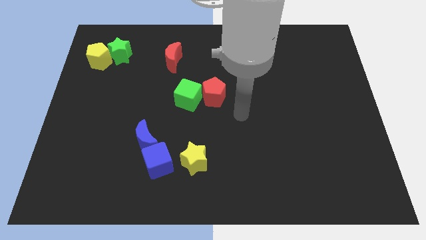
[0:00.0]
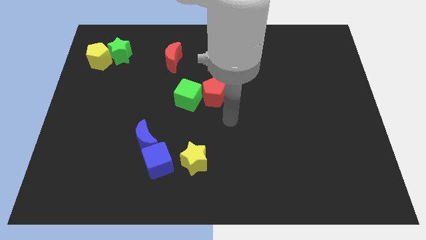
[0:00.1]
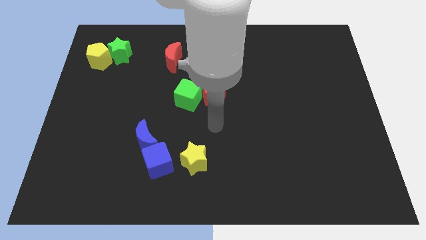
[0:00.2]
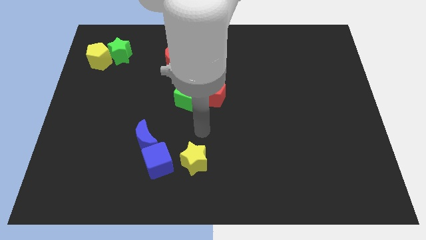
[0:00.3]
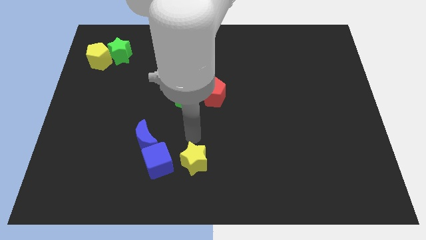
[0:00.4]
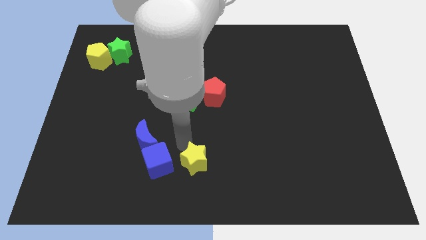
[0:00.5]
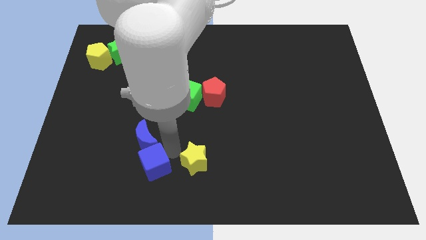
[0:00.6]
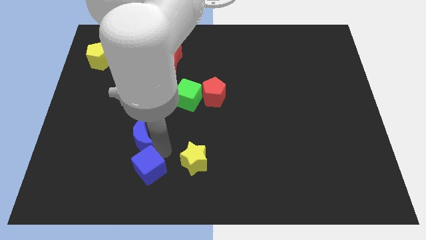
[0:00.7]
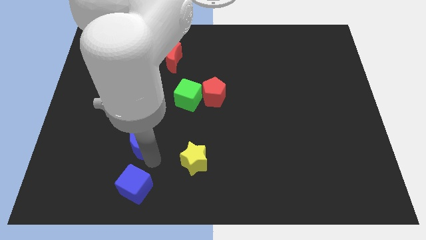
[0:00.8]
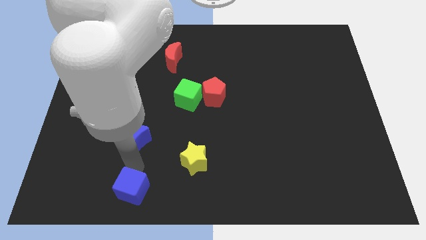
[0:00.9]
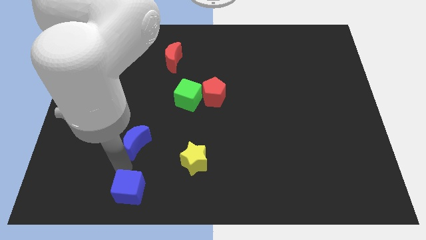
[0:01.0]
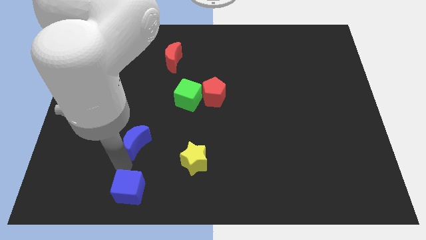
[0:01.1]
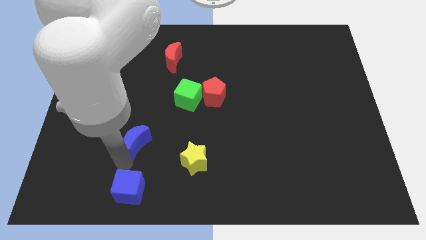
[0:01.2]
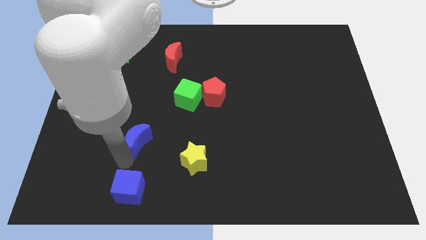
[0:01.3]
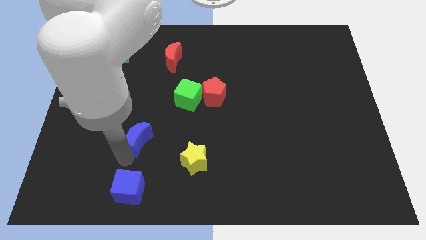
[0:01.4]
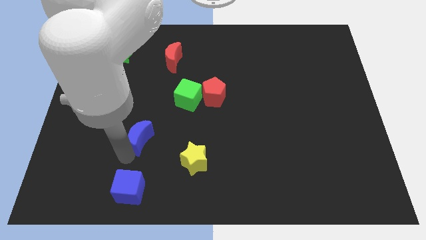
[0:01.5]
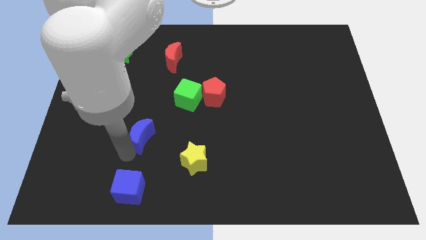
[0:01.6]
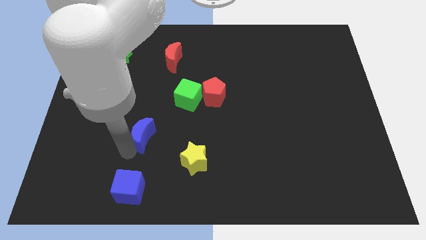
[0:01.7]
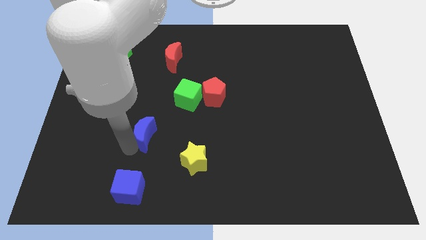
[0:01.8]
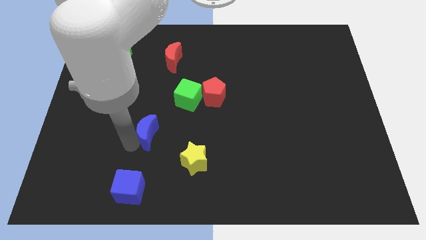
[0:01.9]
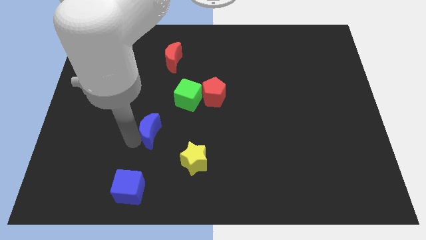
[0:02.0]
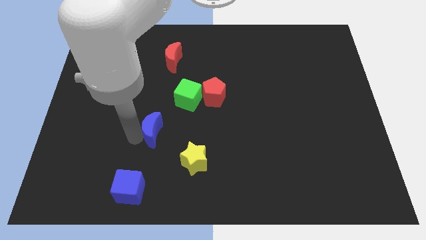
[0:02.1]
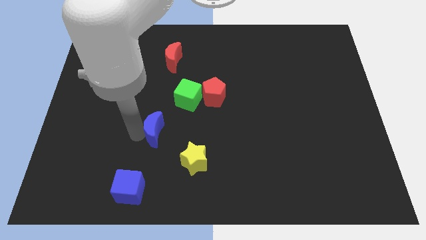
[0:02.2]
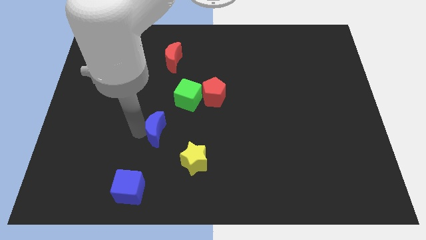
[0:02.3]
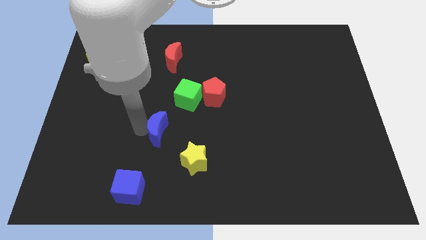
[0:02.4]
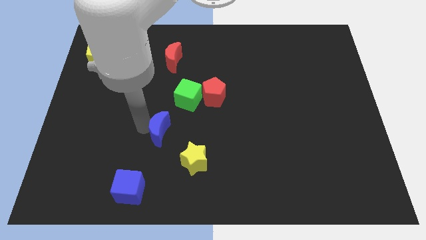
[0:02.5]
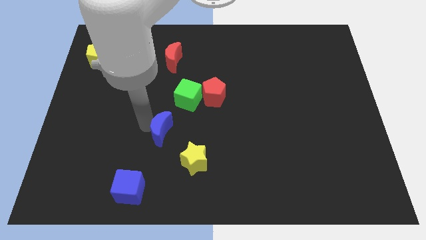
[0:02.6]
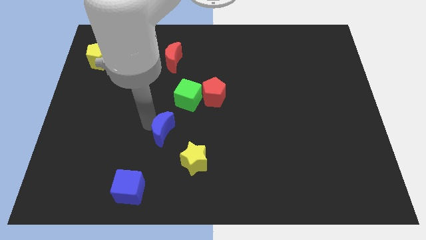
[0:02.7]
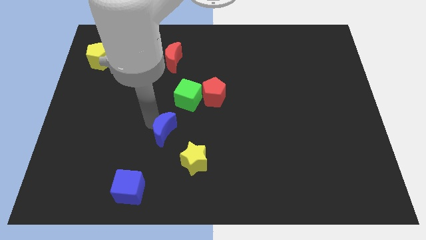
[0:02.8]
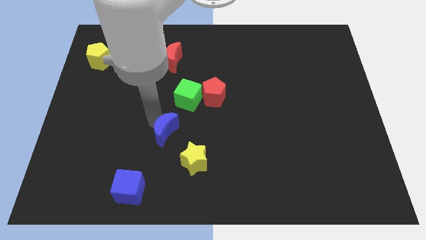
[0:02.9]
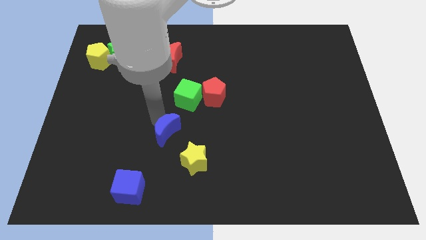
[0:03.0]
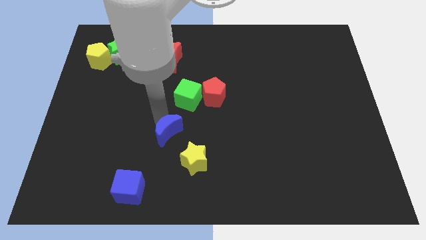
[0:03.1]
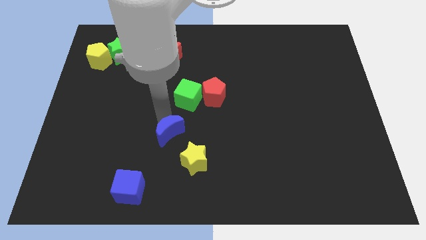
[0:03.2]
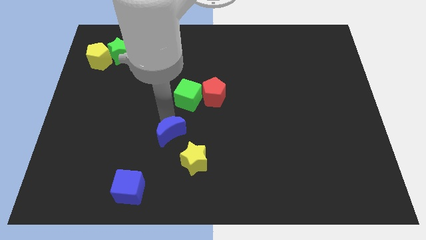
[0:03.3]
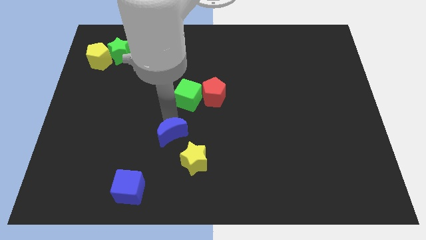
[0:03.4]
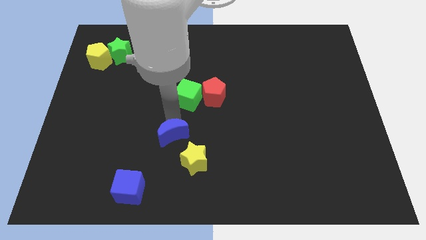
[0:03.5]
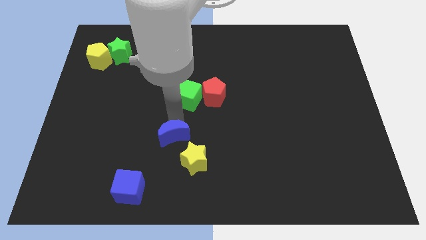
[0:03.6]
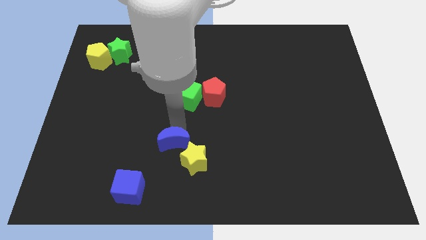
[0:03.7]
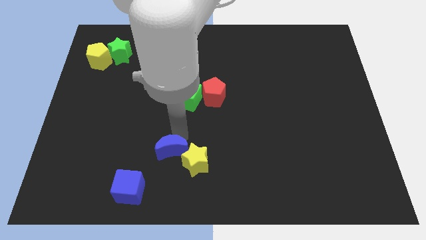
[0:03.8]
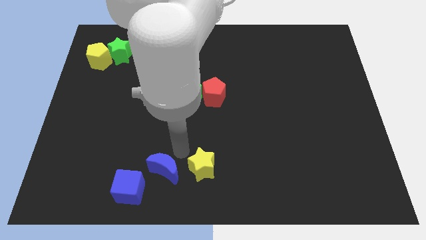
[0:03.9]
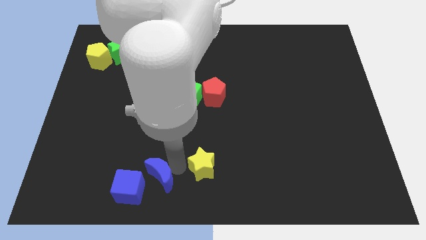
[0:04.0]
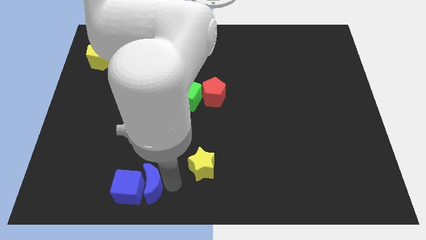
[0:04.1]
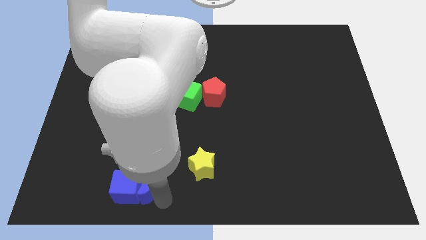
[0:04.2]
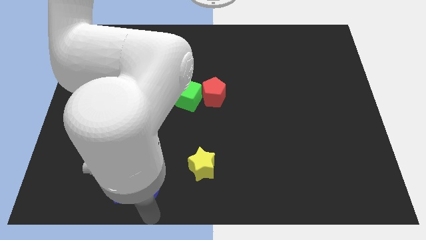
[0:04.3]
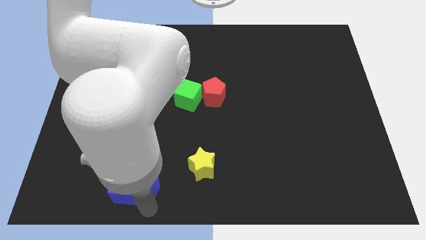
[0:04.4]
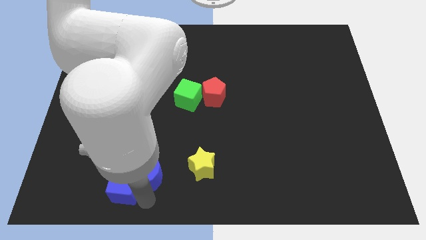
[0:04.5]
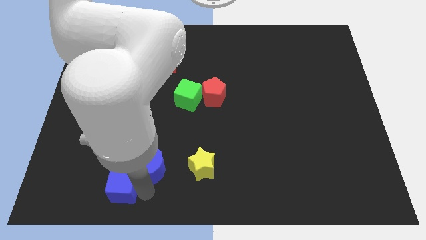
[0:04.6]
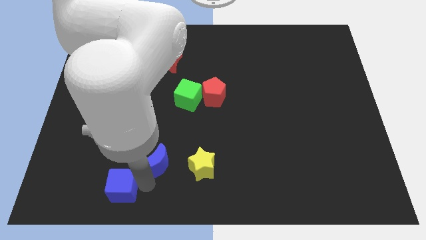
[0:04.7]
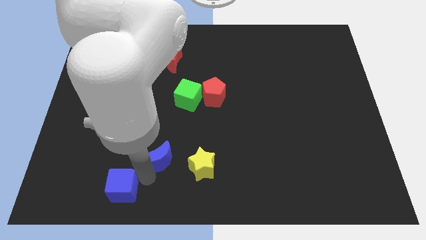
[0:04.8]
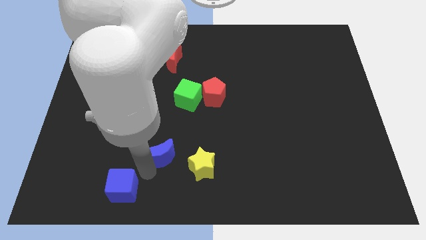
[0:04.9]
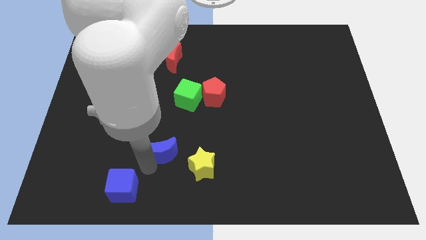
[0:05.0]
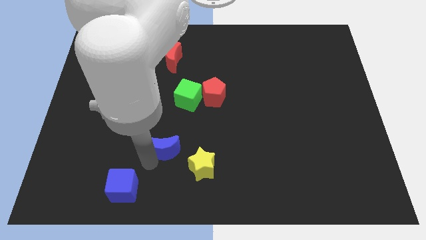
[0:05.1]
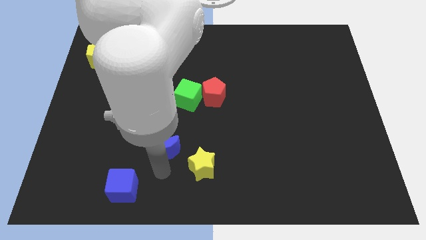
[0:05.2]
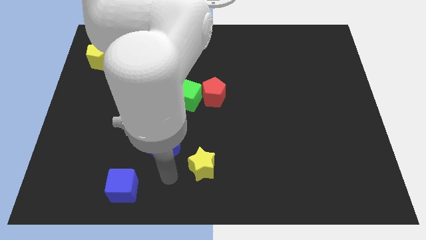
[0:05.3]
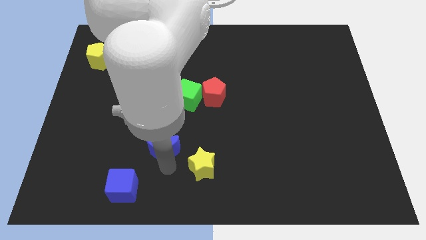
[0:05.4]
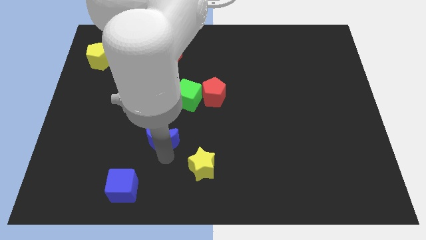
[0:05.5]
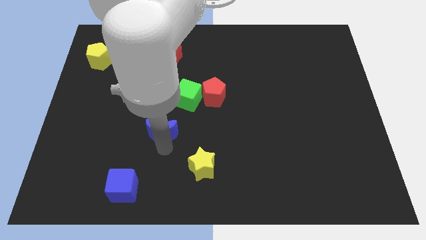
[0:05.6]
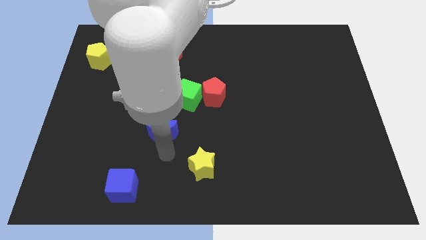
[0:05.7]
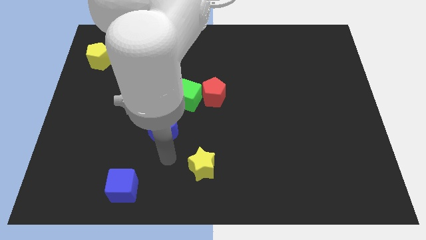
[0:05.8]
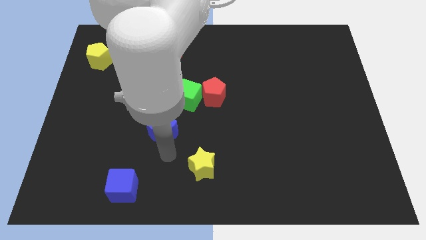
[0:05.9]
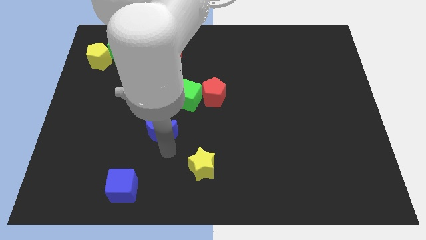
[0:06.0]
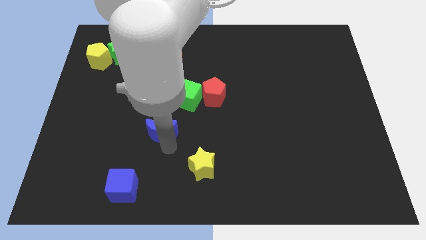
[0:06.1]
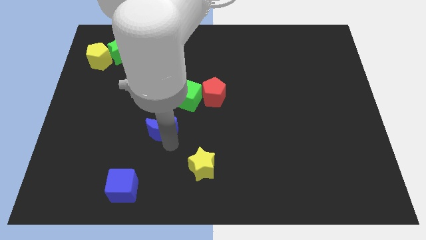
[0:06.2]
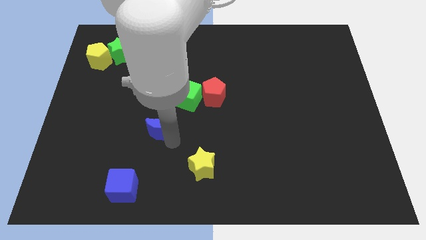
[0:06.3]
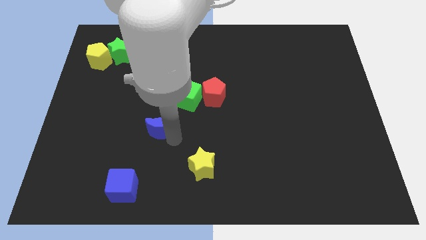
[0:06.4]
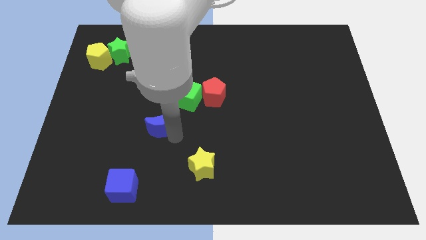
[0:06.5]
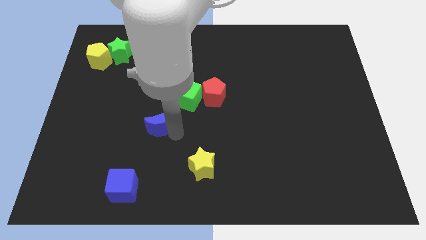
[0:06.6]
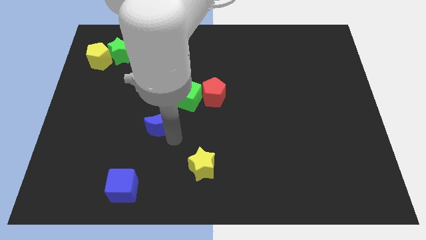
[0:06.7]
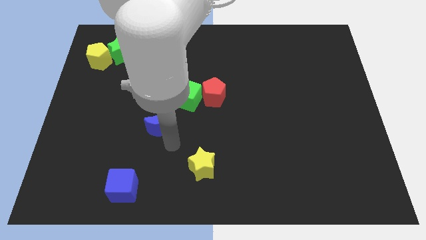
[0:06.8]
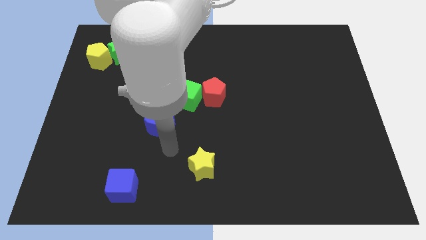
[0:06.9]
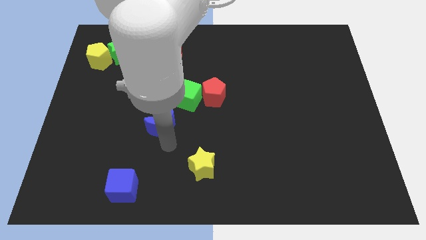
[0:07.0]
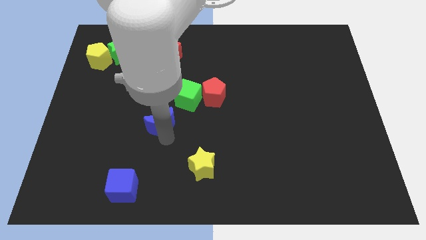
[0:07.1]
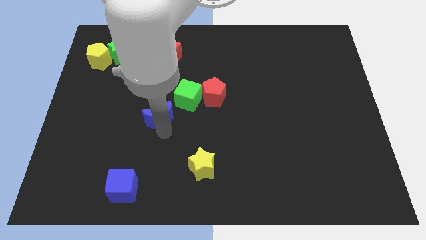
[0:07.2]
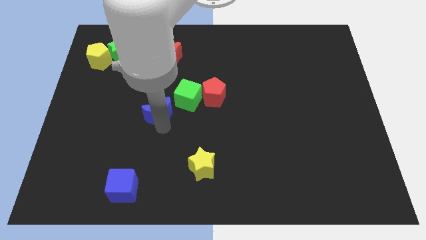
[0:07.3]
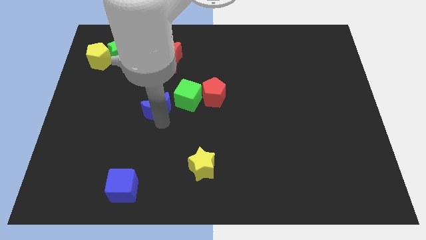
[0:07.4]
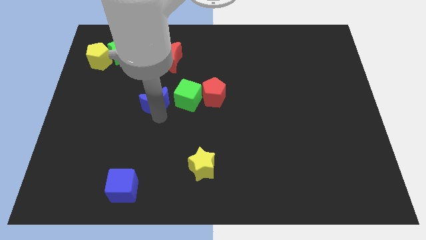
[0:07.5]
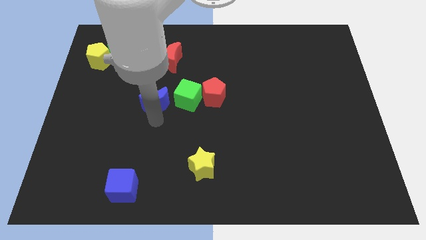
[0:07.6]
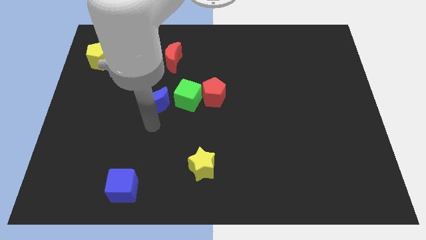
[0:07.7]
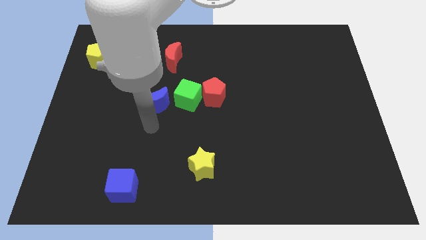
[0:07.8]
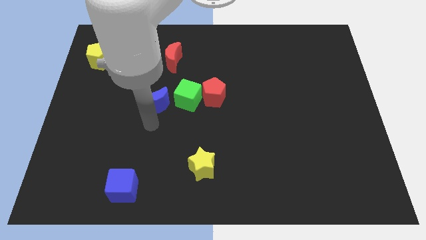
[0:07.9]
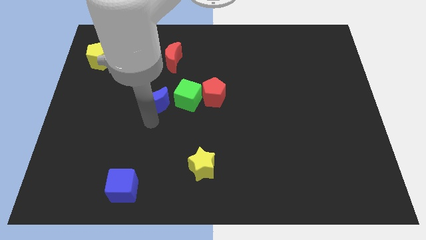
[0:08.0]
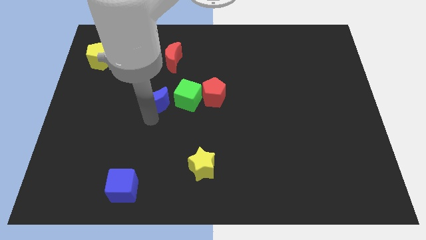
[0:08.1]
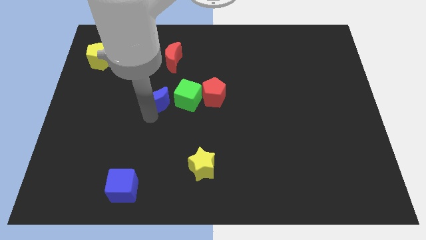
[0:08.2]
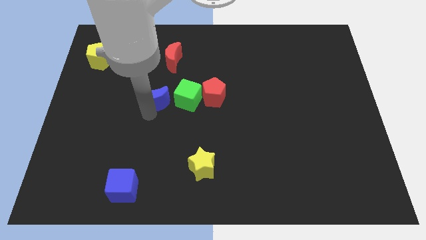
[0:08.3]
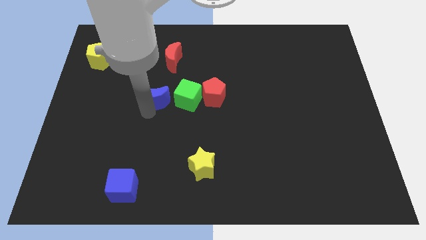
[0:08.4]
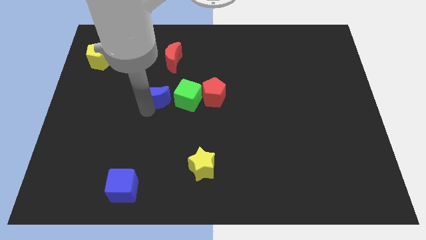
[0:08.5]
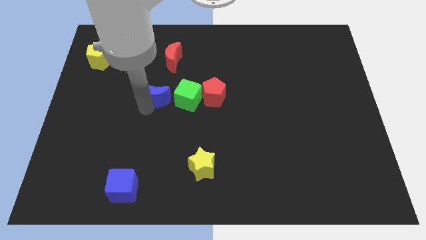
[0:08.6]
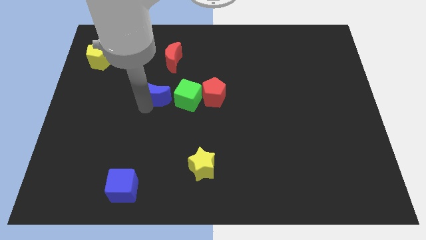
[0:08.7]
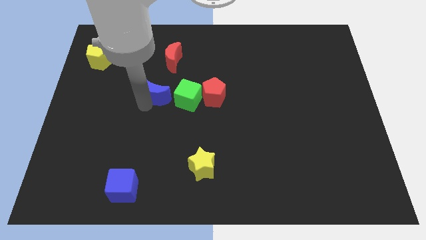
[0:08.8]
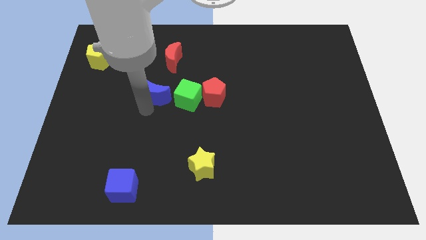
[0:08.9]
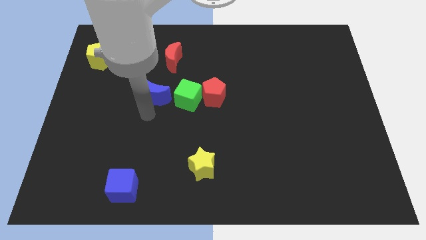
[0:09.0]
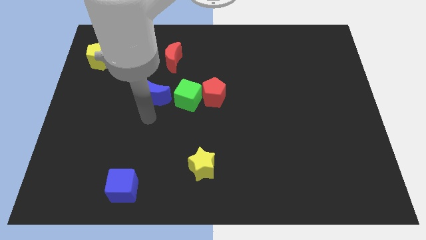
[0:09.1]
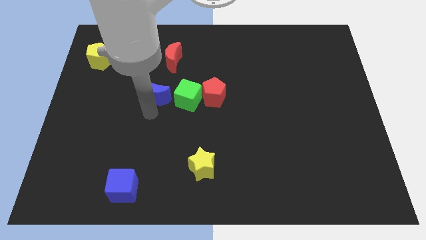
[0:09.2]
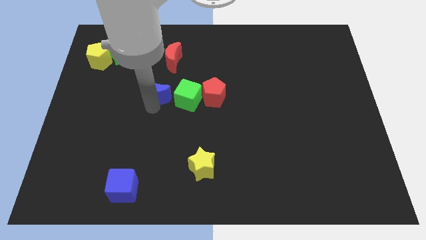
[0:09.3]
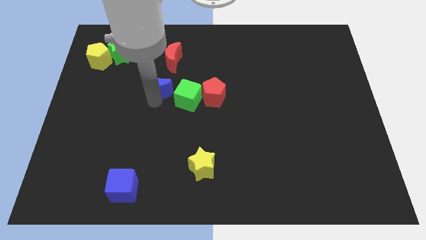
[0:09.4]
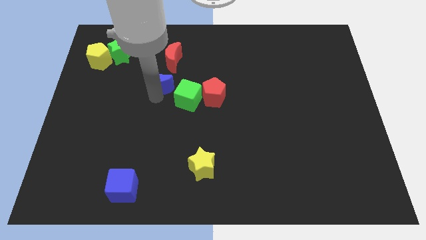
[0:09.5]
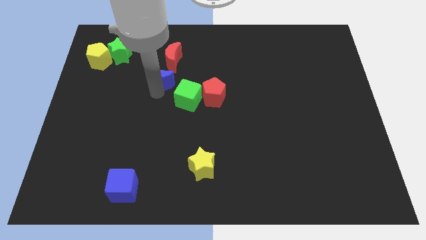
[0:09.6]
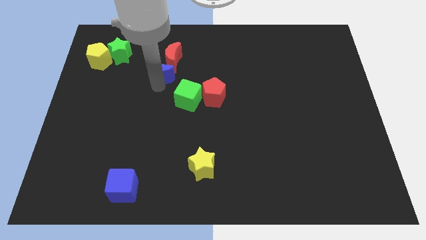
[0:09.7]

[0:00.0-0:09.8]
push the blue moon next to the red moon
